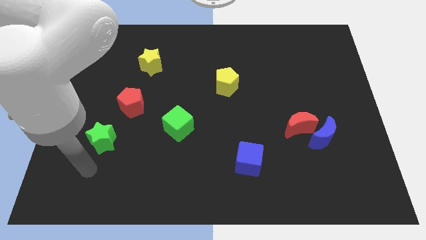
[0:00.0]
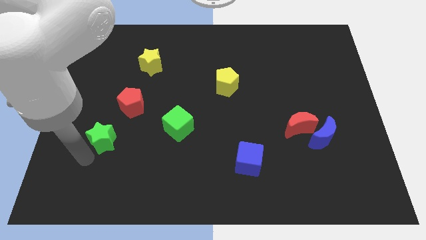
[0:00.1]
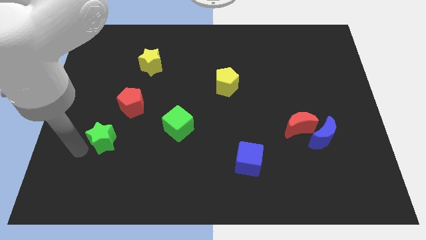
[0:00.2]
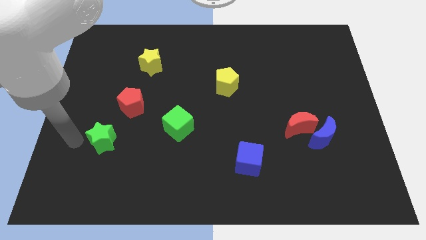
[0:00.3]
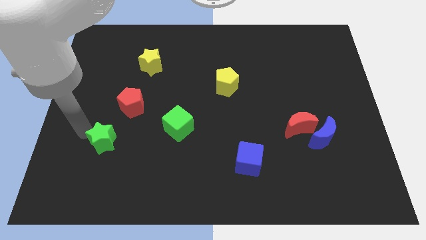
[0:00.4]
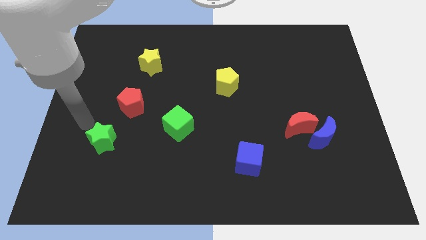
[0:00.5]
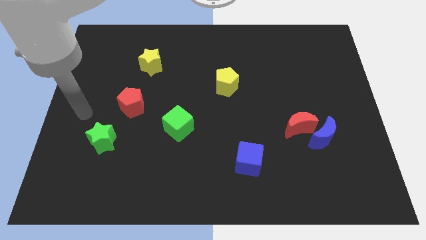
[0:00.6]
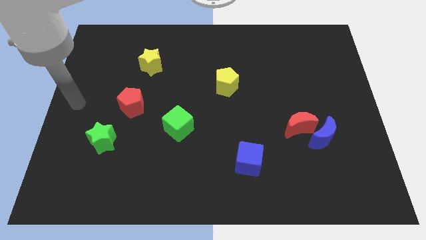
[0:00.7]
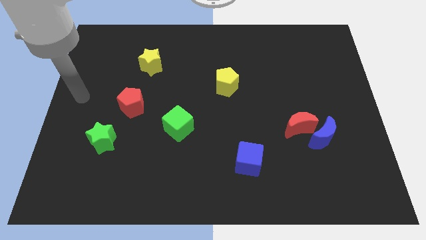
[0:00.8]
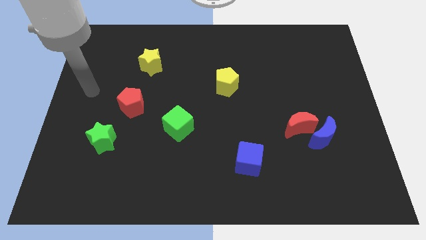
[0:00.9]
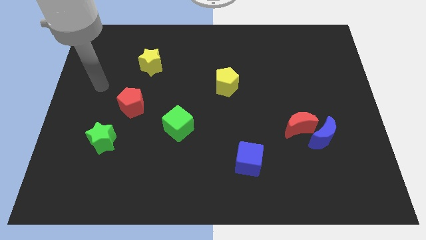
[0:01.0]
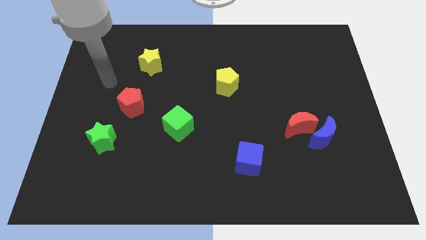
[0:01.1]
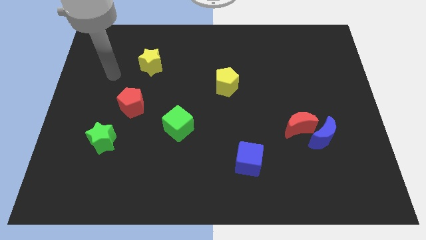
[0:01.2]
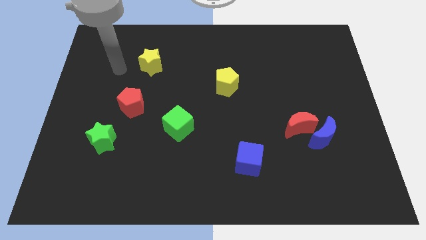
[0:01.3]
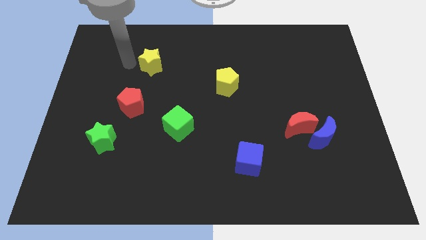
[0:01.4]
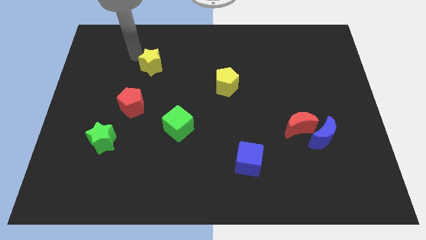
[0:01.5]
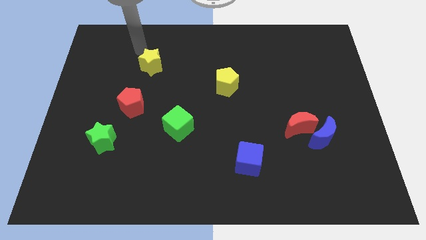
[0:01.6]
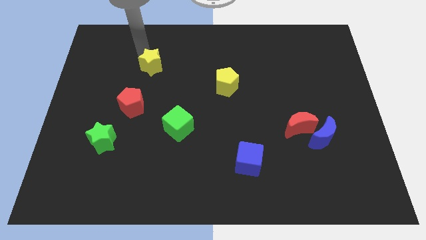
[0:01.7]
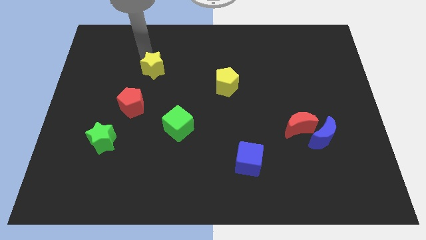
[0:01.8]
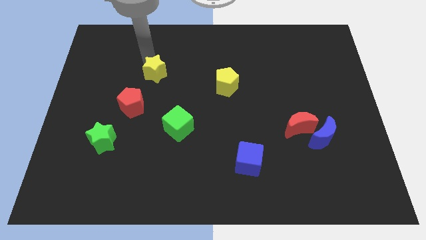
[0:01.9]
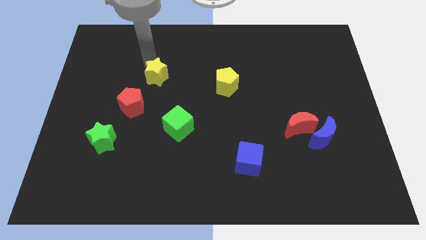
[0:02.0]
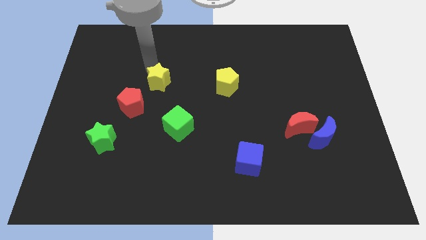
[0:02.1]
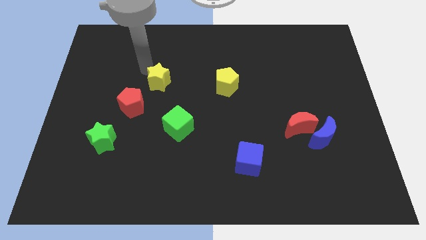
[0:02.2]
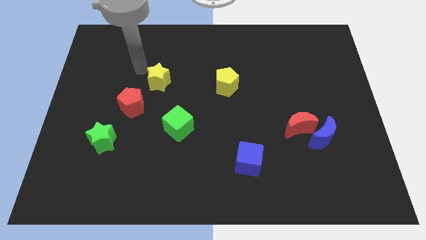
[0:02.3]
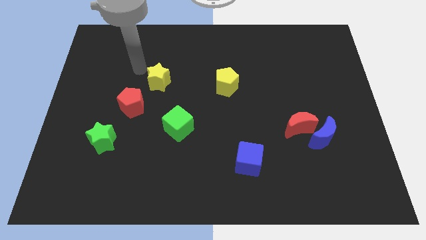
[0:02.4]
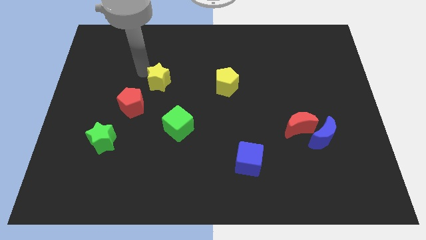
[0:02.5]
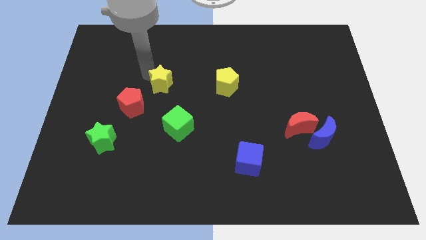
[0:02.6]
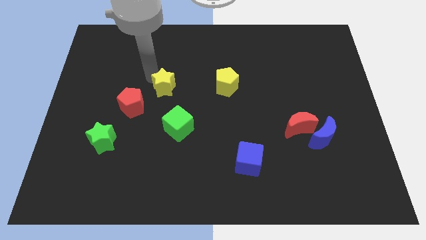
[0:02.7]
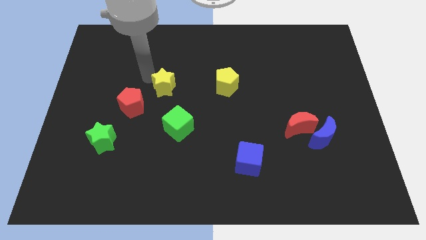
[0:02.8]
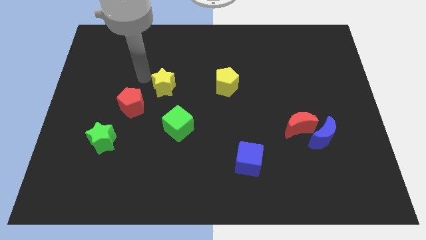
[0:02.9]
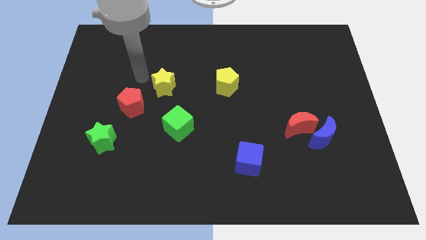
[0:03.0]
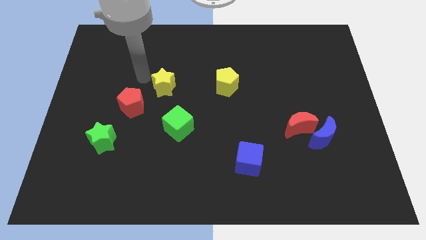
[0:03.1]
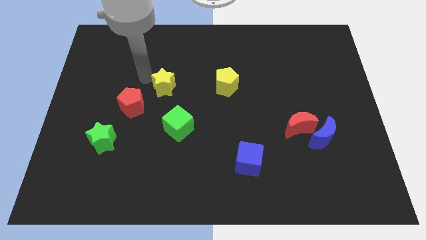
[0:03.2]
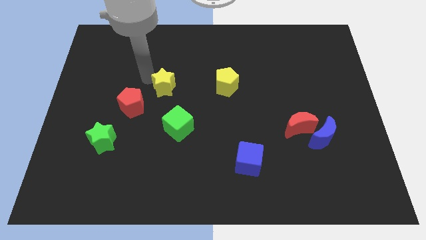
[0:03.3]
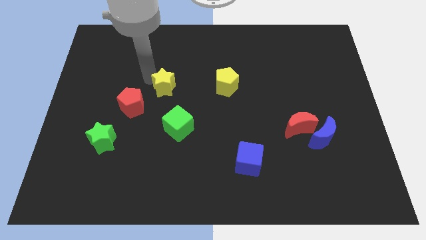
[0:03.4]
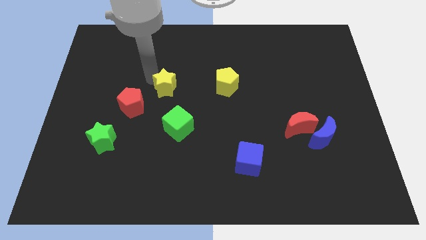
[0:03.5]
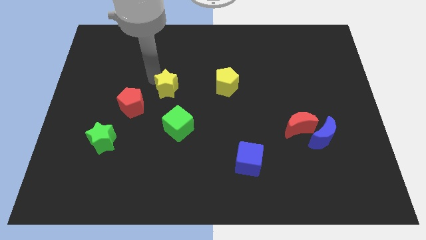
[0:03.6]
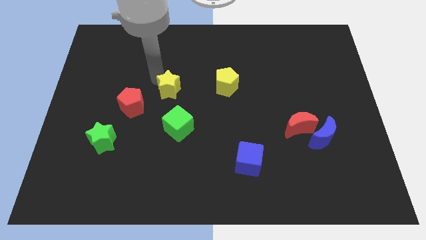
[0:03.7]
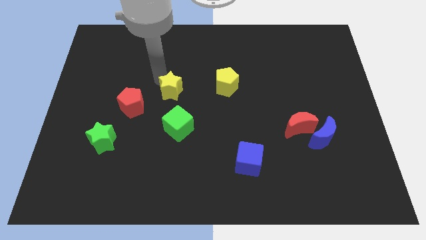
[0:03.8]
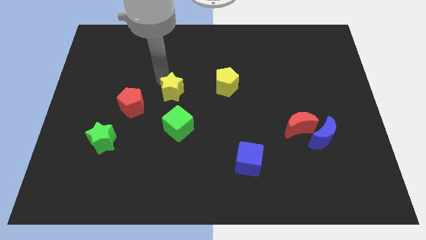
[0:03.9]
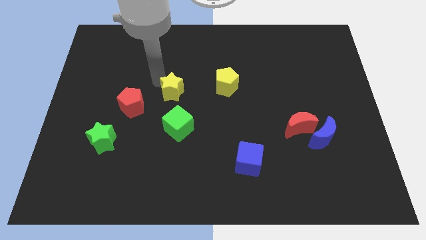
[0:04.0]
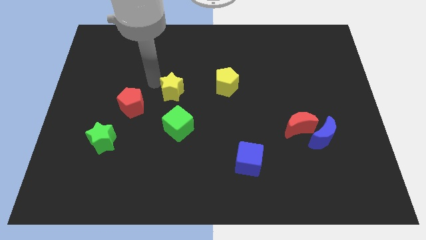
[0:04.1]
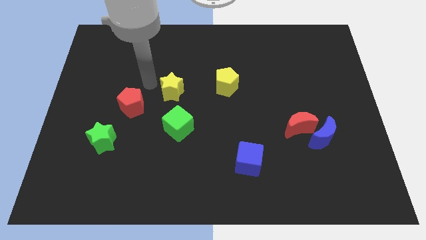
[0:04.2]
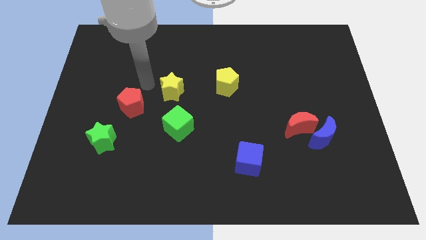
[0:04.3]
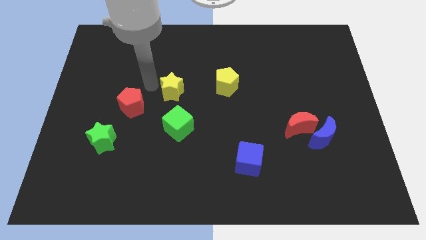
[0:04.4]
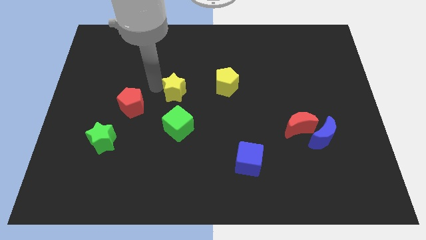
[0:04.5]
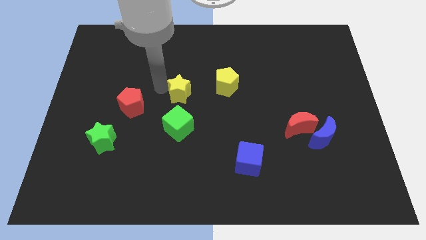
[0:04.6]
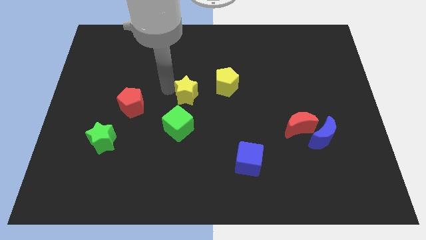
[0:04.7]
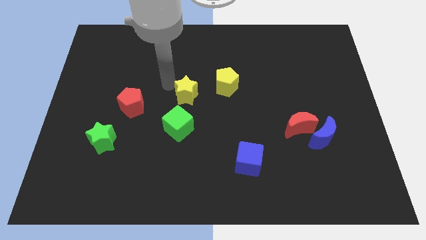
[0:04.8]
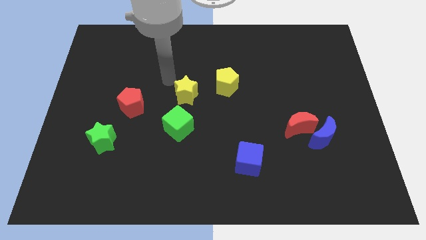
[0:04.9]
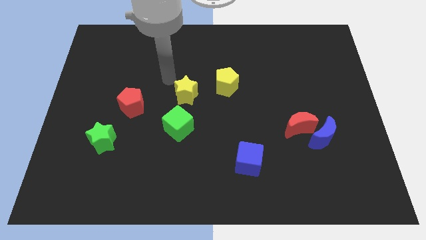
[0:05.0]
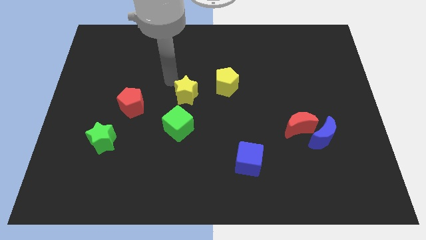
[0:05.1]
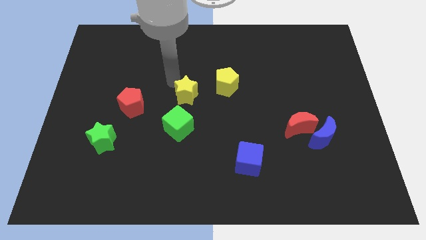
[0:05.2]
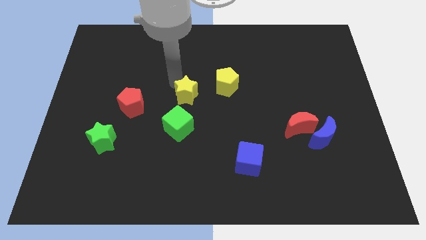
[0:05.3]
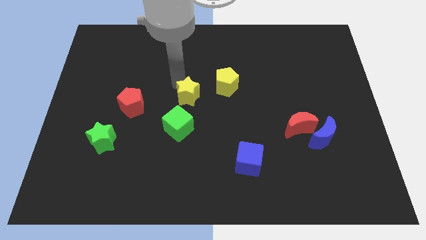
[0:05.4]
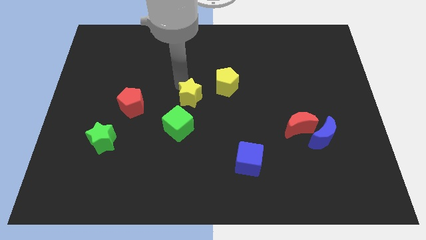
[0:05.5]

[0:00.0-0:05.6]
slide the yellow star to the top right of the green cube

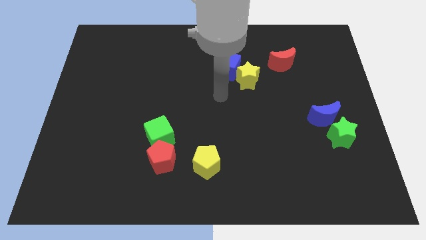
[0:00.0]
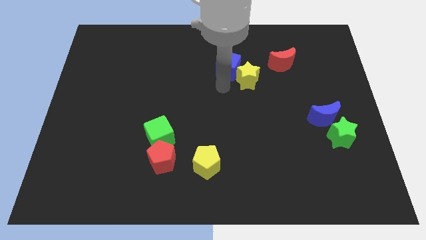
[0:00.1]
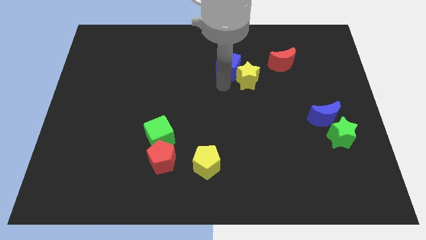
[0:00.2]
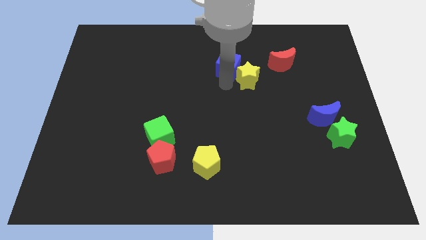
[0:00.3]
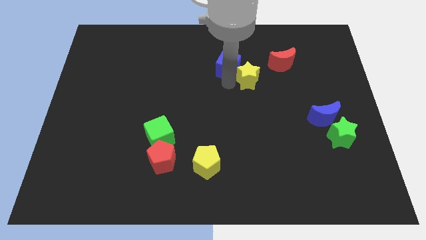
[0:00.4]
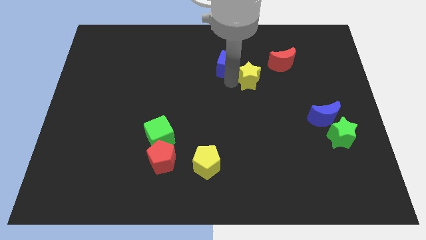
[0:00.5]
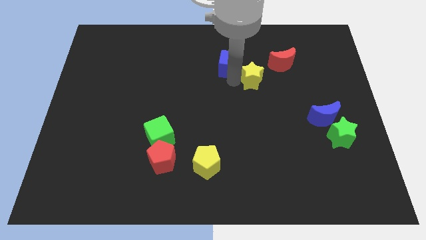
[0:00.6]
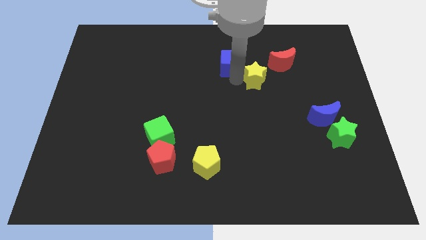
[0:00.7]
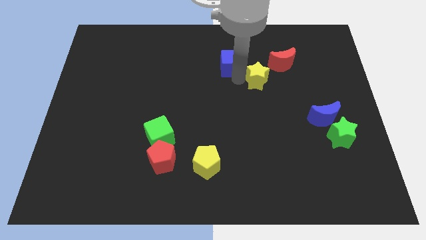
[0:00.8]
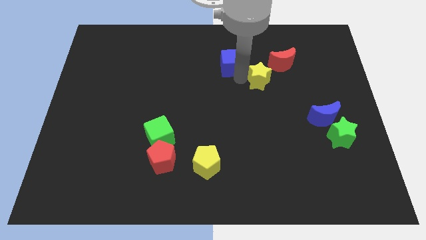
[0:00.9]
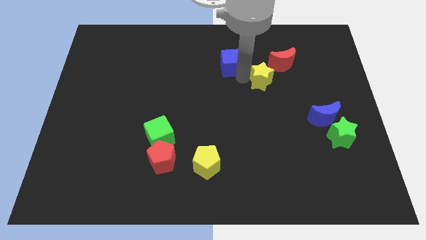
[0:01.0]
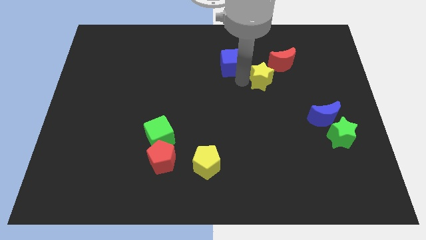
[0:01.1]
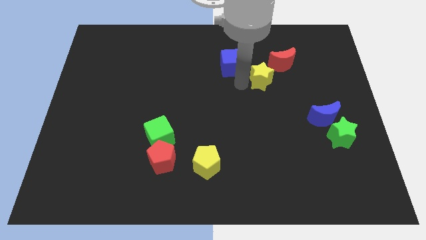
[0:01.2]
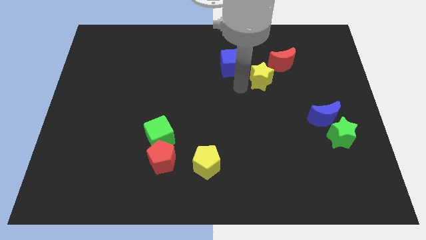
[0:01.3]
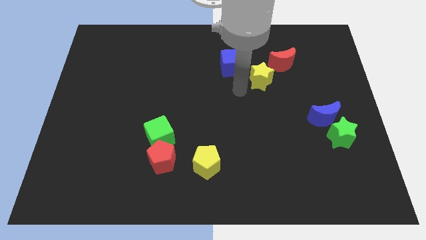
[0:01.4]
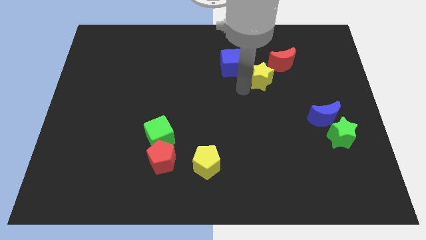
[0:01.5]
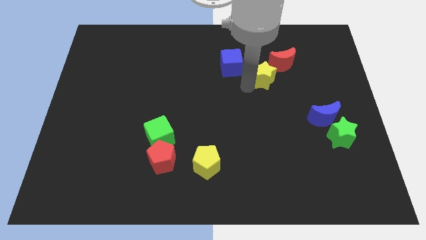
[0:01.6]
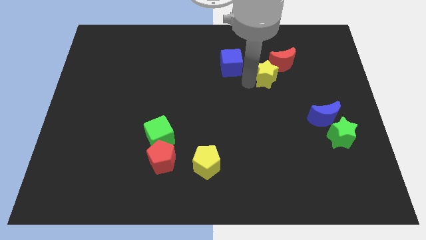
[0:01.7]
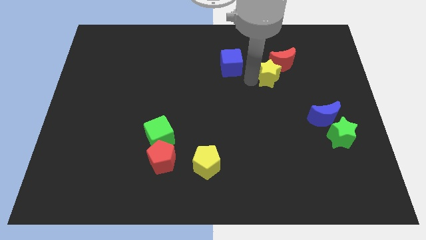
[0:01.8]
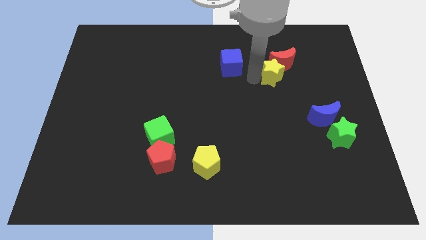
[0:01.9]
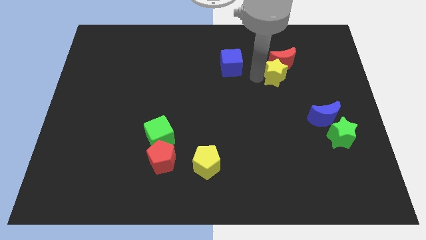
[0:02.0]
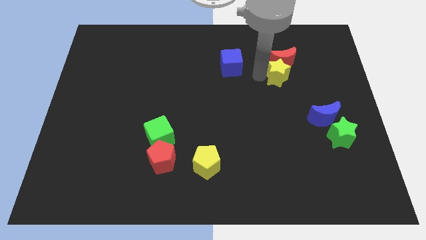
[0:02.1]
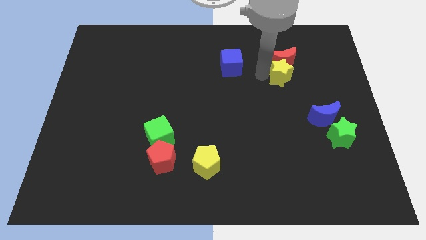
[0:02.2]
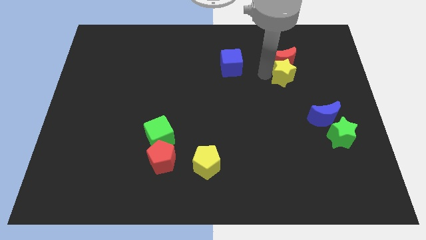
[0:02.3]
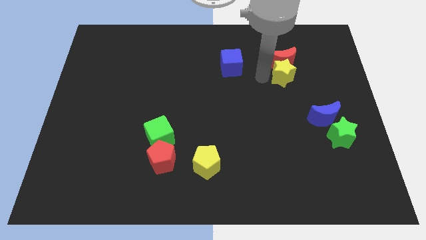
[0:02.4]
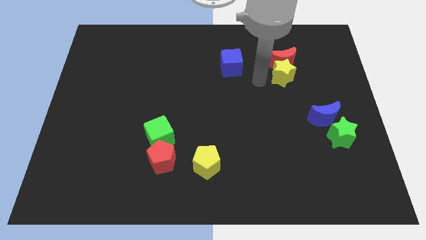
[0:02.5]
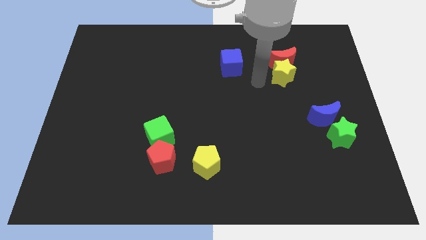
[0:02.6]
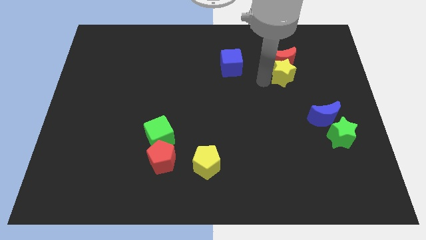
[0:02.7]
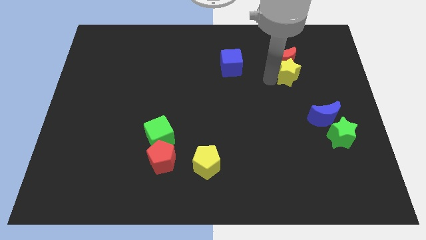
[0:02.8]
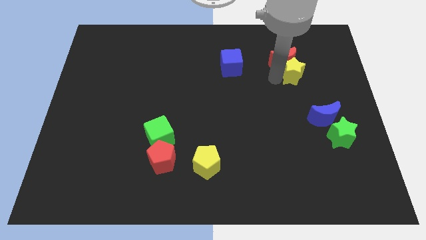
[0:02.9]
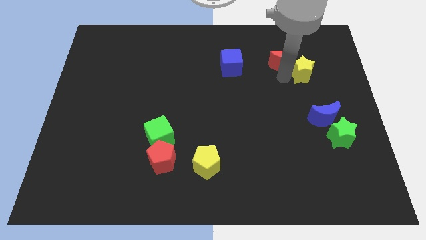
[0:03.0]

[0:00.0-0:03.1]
move the yellow star to the right of the red moon
